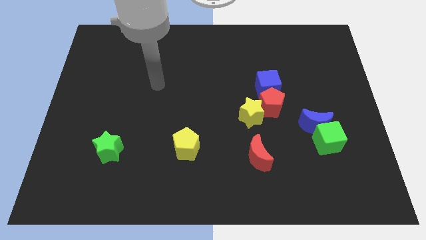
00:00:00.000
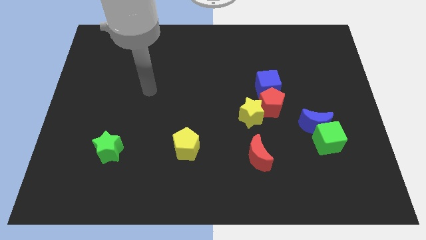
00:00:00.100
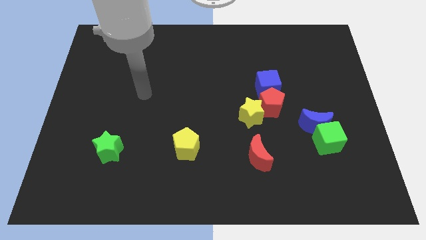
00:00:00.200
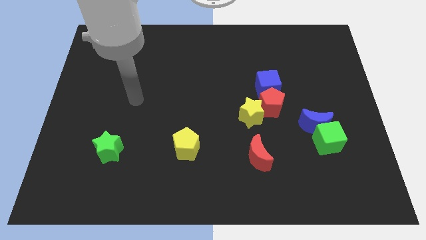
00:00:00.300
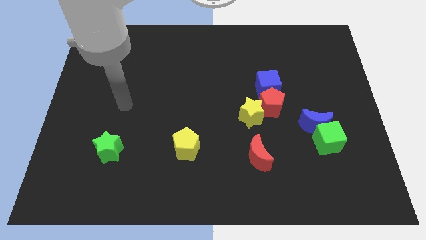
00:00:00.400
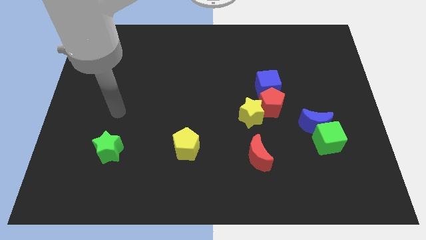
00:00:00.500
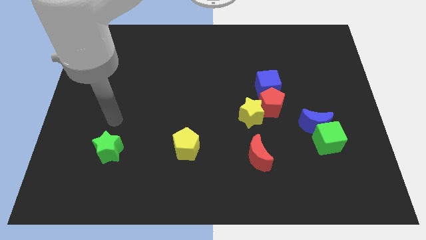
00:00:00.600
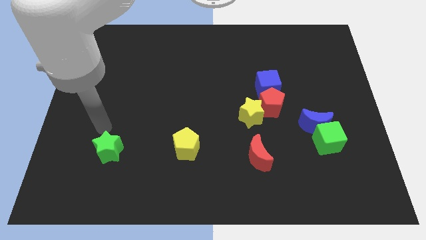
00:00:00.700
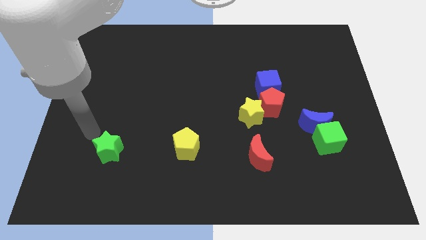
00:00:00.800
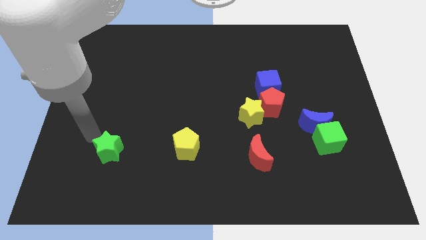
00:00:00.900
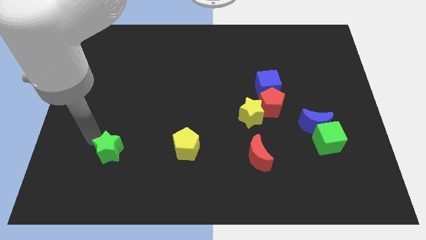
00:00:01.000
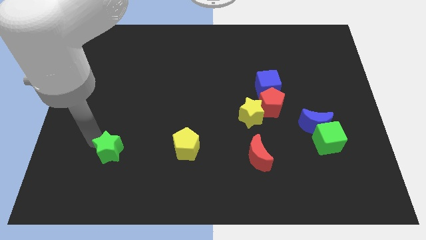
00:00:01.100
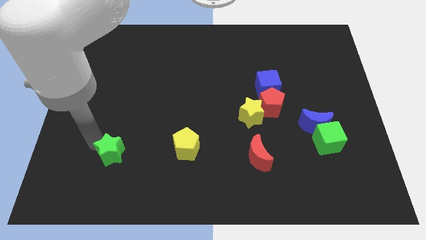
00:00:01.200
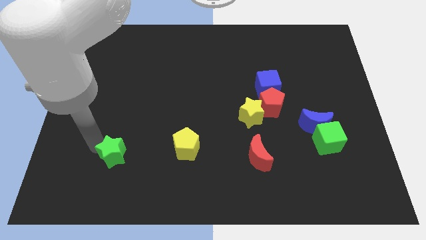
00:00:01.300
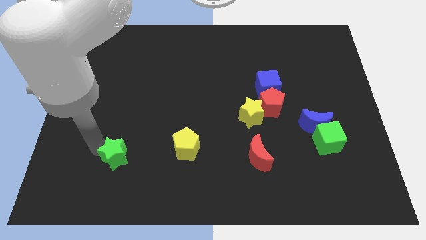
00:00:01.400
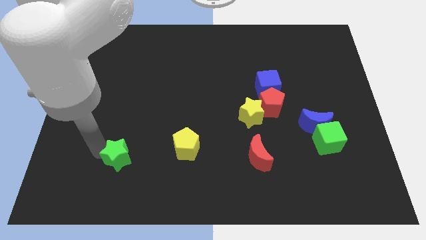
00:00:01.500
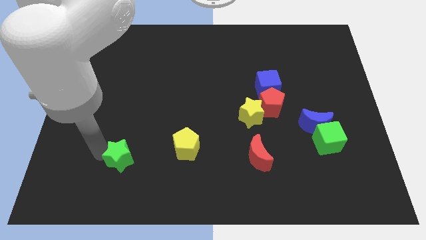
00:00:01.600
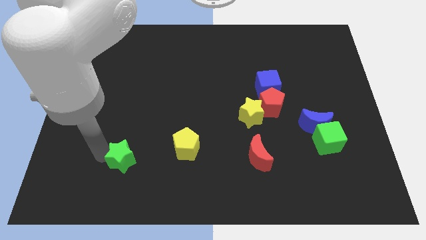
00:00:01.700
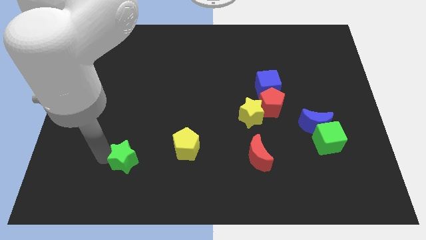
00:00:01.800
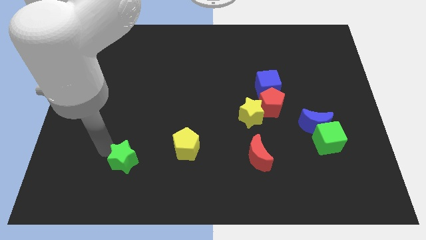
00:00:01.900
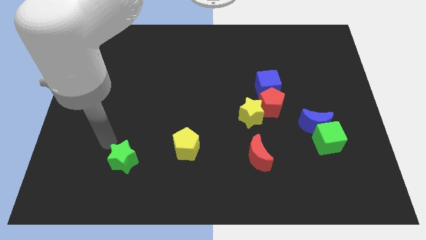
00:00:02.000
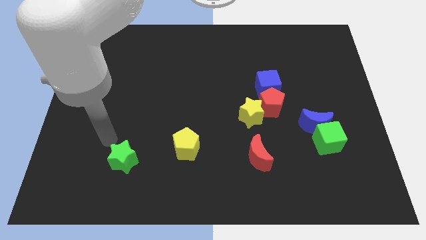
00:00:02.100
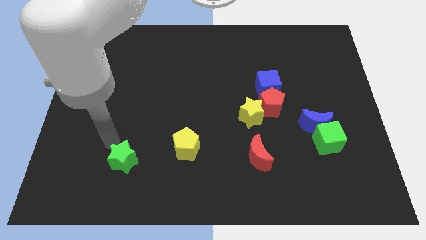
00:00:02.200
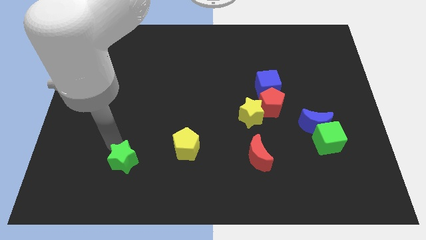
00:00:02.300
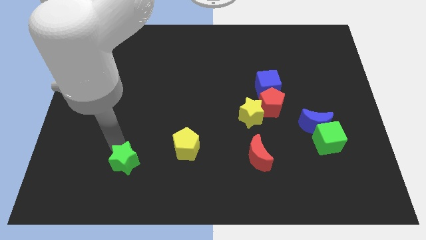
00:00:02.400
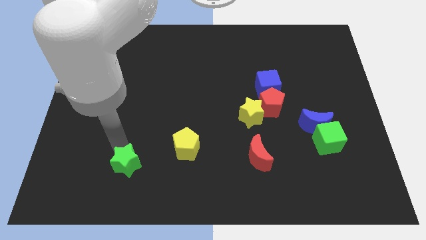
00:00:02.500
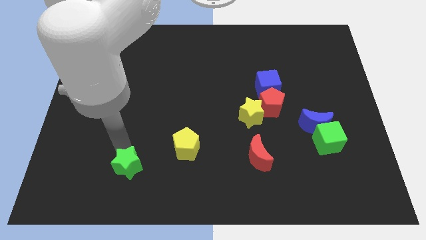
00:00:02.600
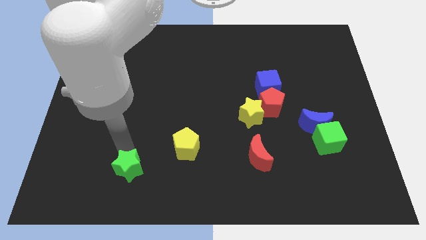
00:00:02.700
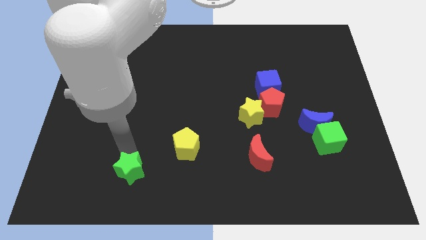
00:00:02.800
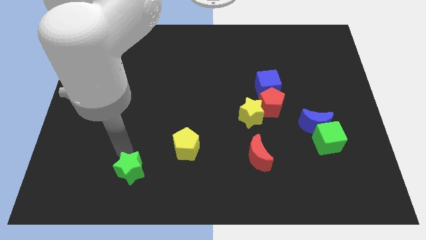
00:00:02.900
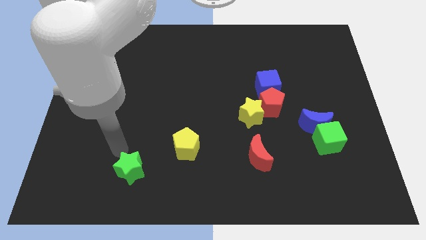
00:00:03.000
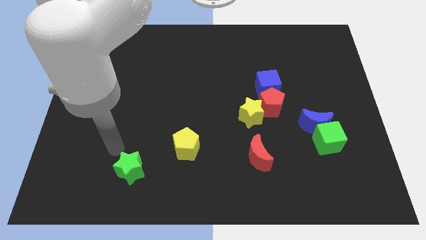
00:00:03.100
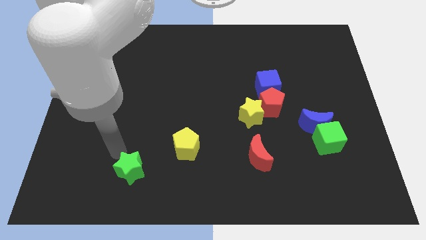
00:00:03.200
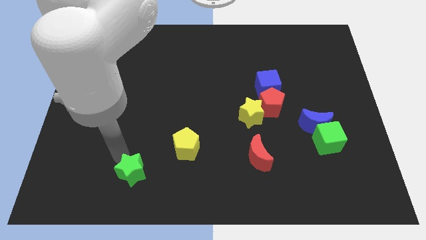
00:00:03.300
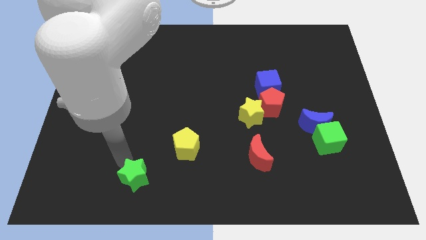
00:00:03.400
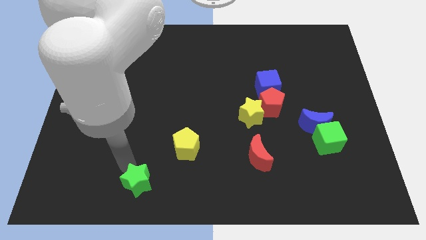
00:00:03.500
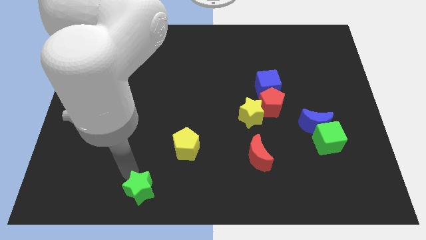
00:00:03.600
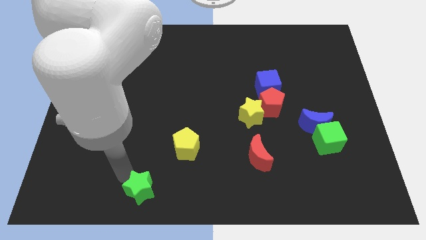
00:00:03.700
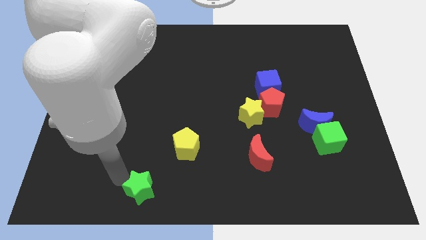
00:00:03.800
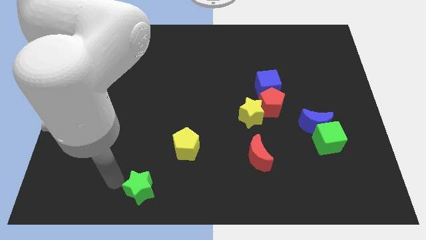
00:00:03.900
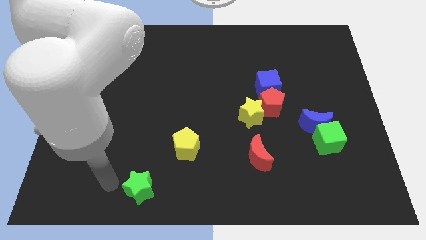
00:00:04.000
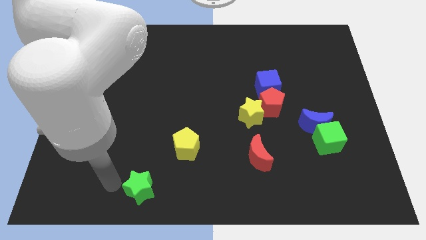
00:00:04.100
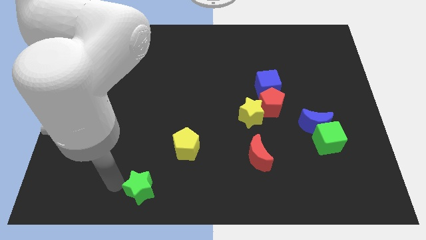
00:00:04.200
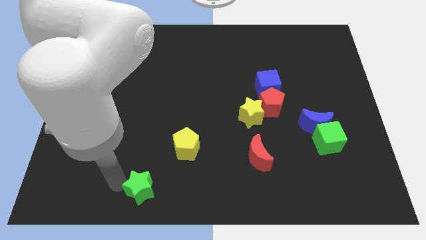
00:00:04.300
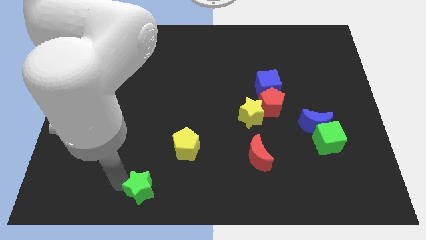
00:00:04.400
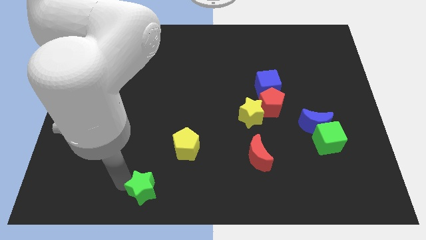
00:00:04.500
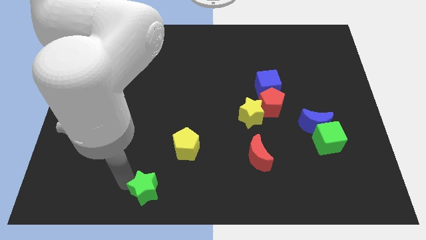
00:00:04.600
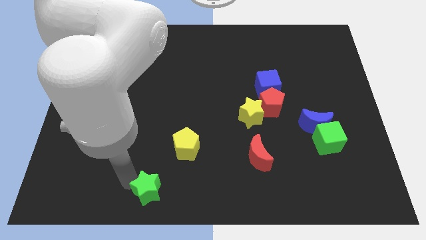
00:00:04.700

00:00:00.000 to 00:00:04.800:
put the green star to the bottom

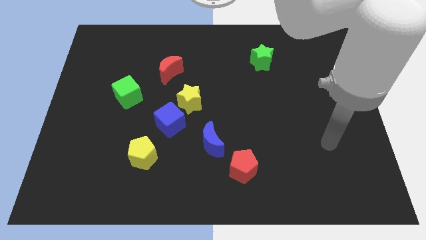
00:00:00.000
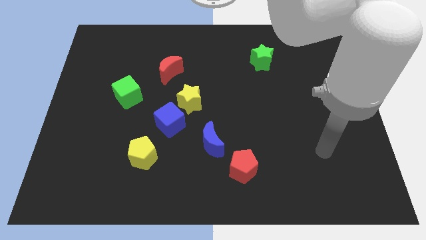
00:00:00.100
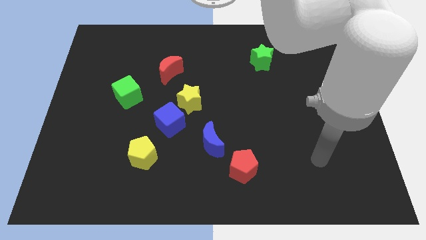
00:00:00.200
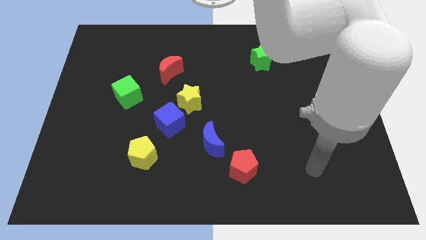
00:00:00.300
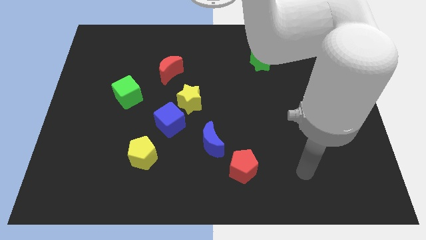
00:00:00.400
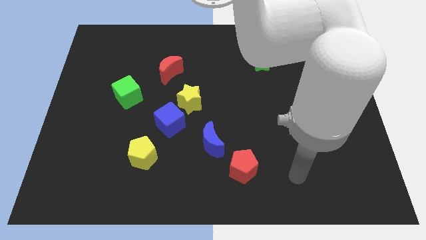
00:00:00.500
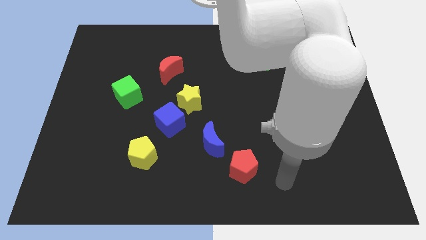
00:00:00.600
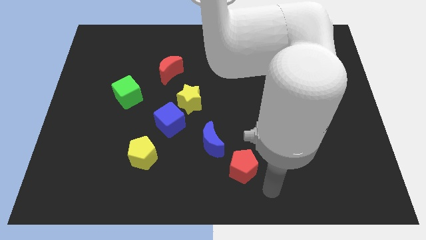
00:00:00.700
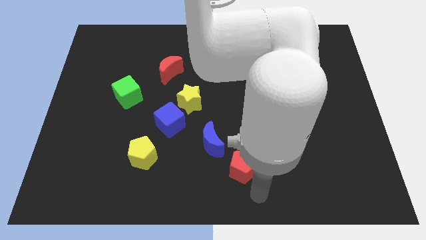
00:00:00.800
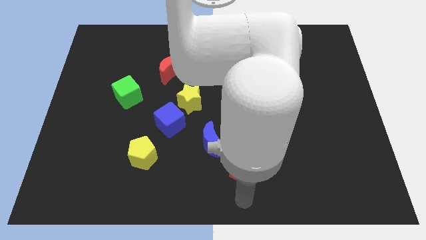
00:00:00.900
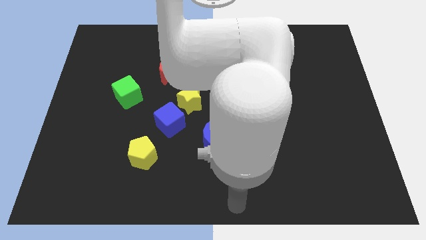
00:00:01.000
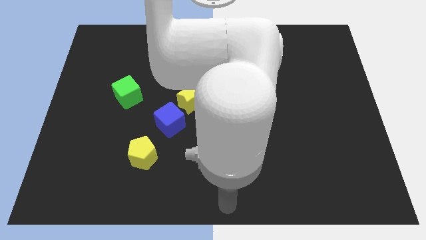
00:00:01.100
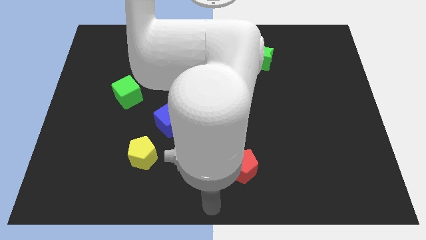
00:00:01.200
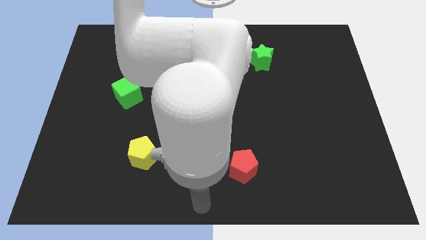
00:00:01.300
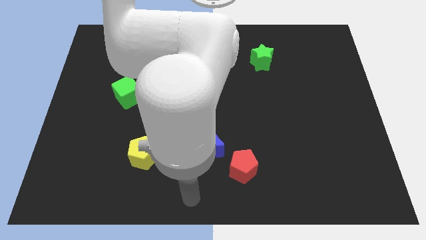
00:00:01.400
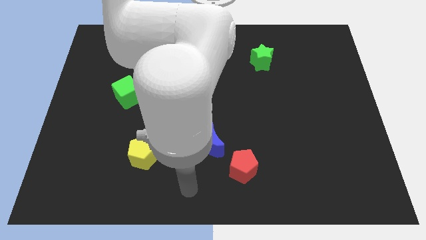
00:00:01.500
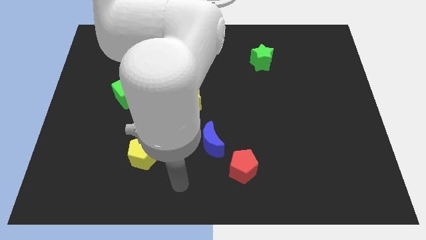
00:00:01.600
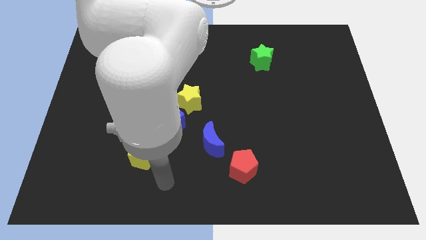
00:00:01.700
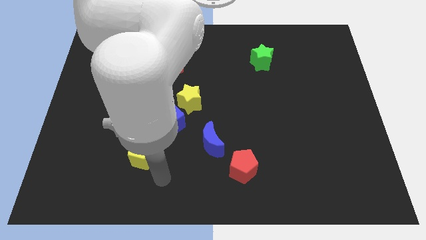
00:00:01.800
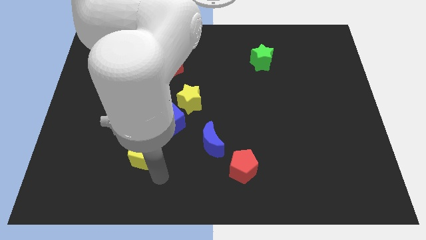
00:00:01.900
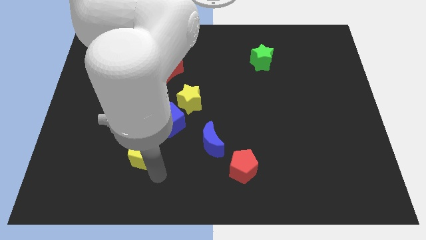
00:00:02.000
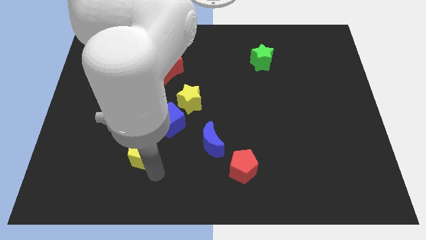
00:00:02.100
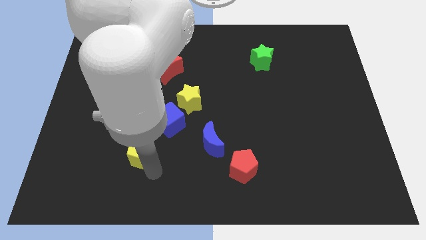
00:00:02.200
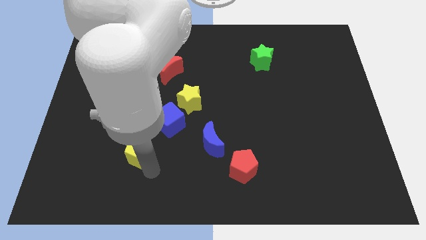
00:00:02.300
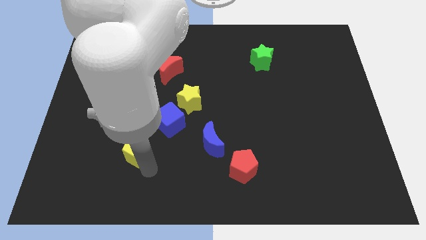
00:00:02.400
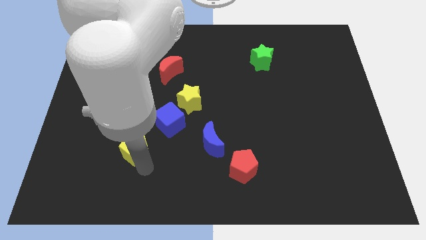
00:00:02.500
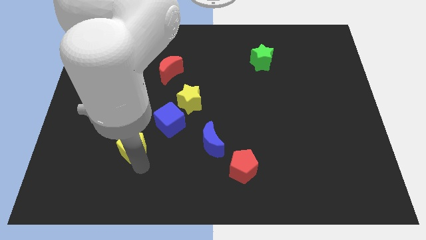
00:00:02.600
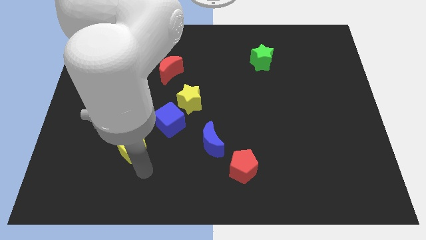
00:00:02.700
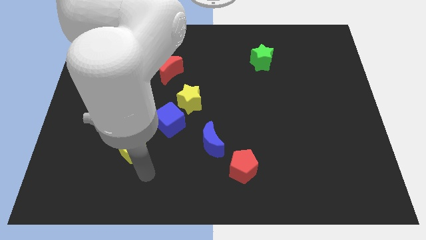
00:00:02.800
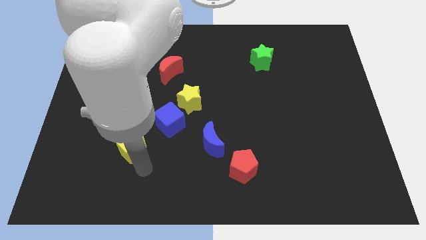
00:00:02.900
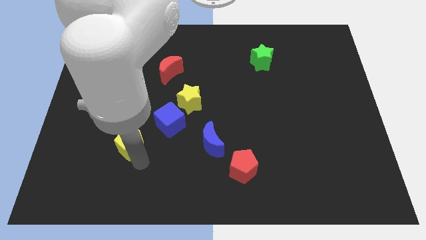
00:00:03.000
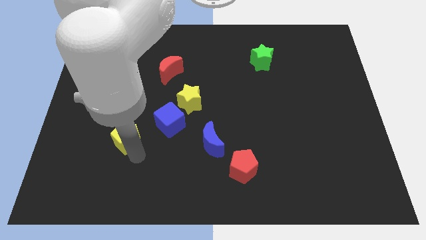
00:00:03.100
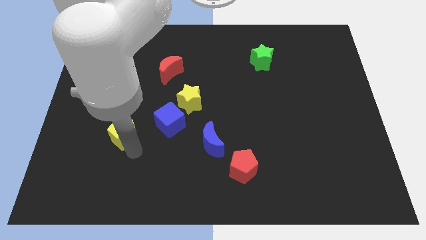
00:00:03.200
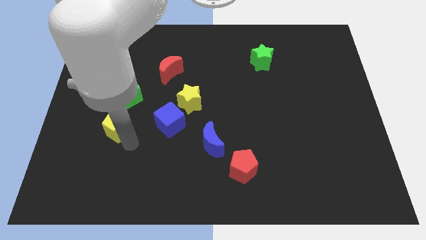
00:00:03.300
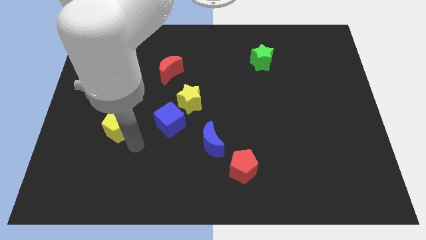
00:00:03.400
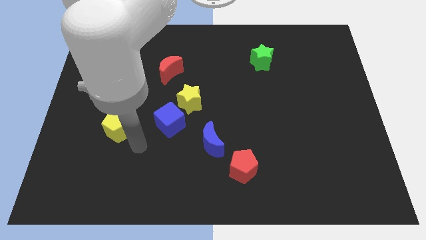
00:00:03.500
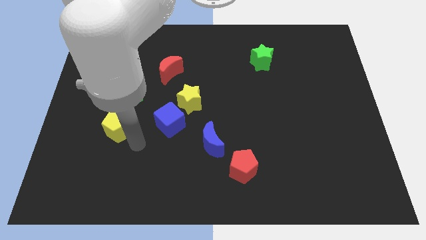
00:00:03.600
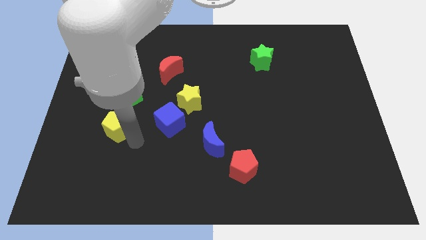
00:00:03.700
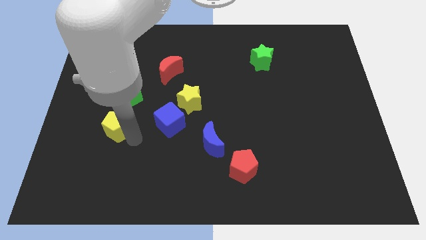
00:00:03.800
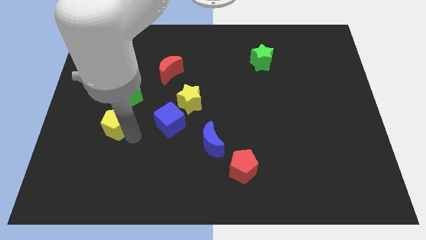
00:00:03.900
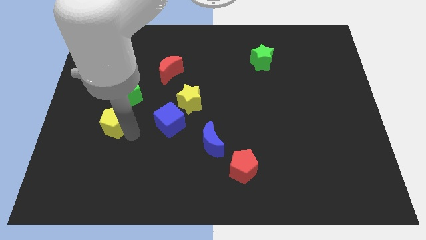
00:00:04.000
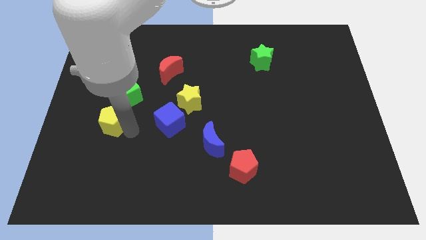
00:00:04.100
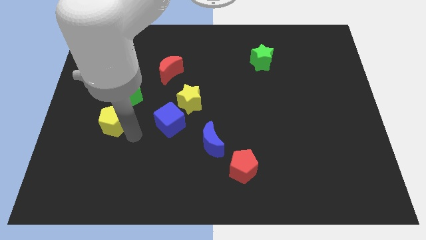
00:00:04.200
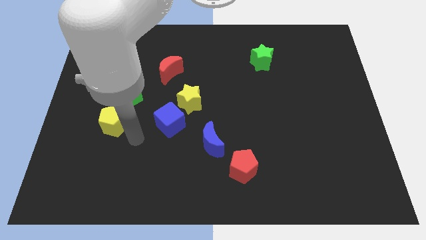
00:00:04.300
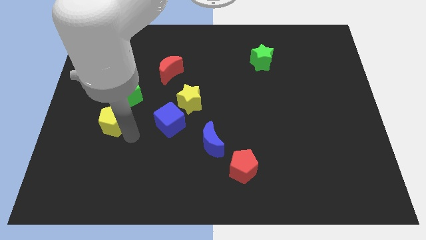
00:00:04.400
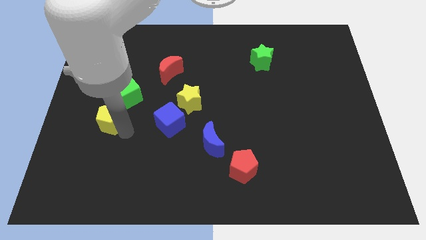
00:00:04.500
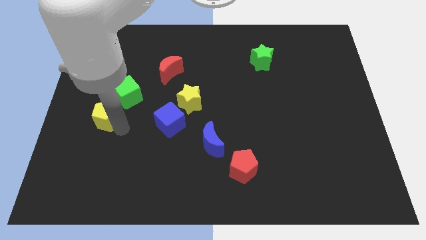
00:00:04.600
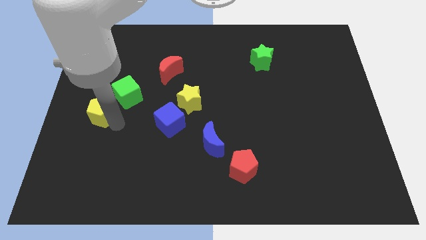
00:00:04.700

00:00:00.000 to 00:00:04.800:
move the yellow pentagon to the left side of the board
